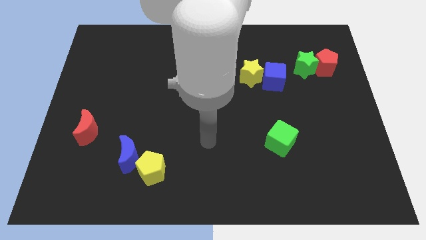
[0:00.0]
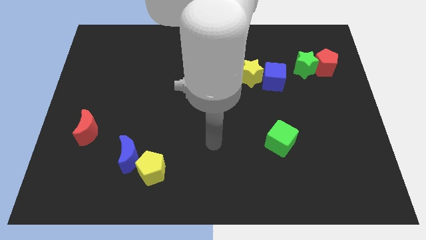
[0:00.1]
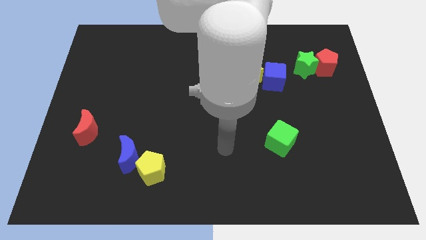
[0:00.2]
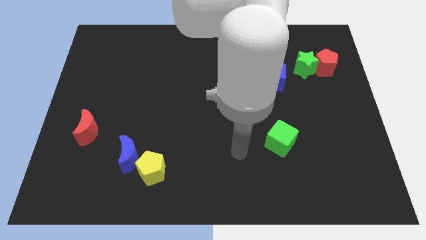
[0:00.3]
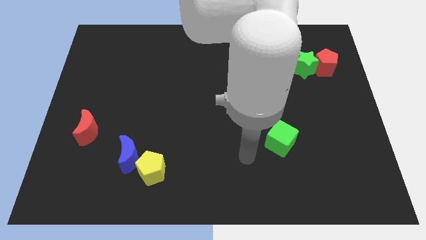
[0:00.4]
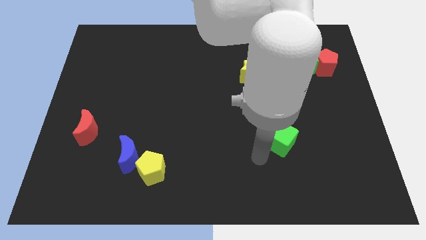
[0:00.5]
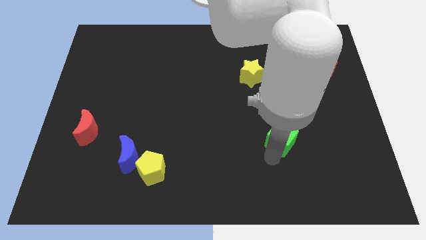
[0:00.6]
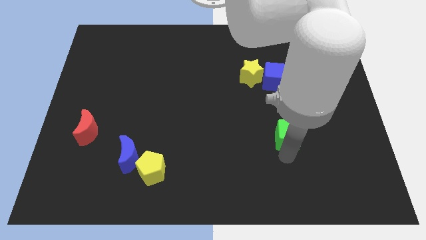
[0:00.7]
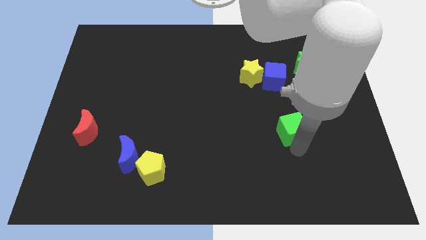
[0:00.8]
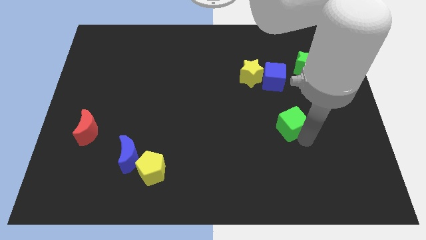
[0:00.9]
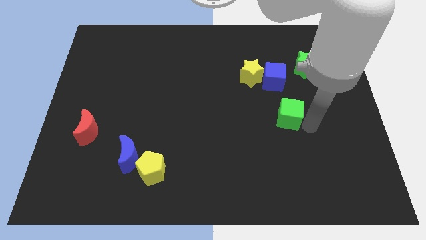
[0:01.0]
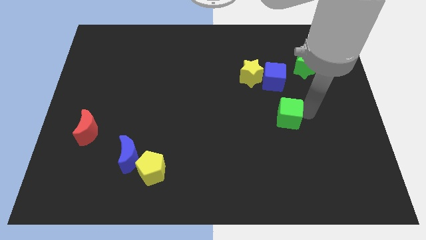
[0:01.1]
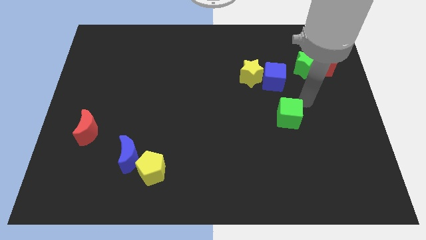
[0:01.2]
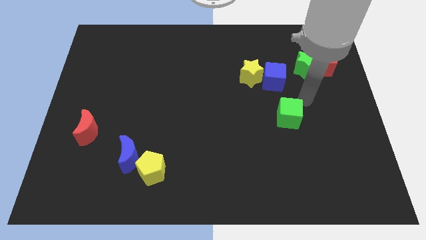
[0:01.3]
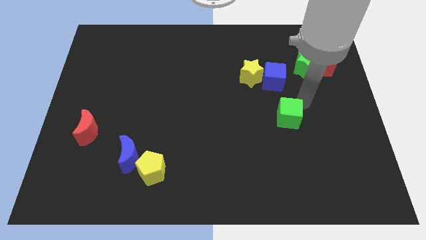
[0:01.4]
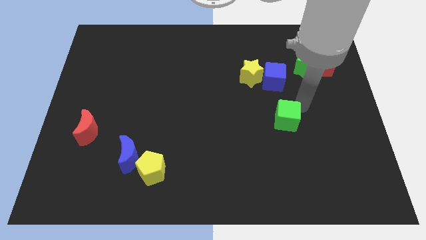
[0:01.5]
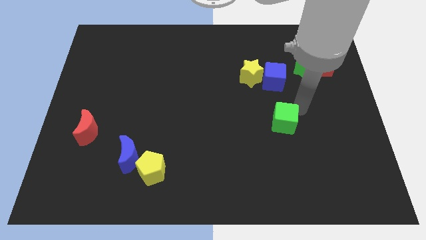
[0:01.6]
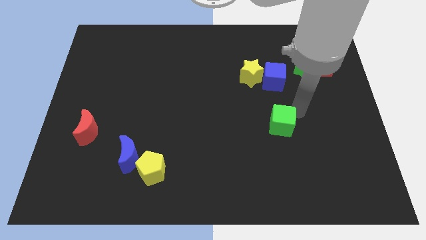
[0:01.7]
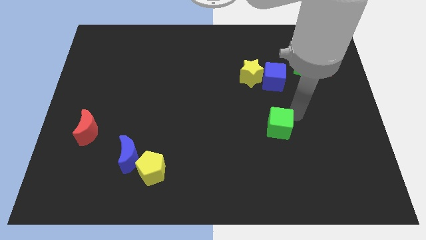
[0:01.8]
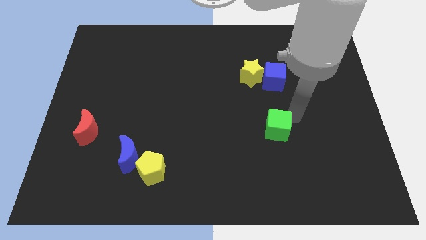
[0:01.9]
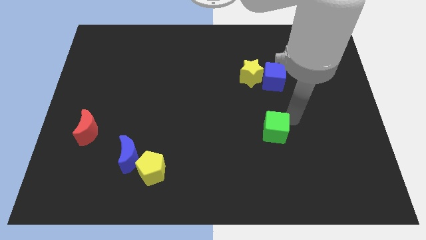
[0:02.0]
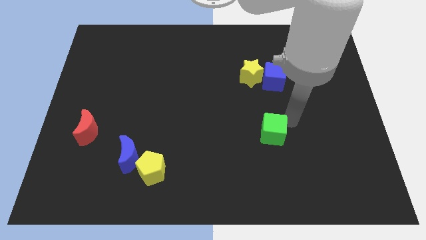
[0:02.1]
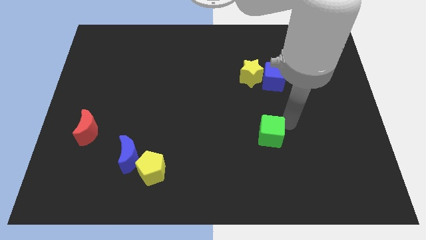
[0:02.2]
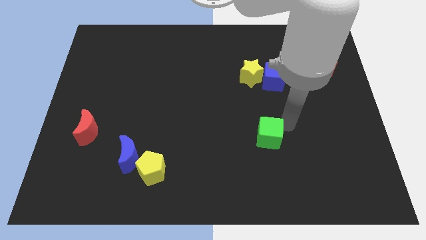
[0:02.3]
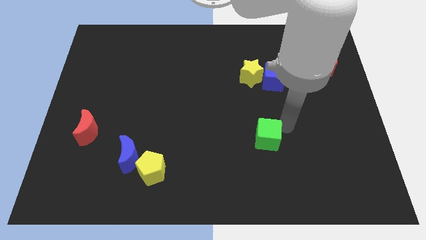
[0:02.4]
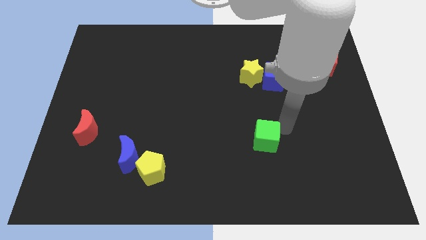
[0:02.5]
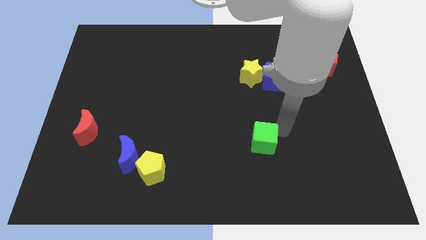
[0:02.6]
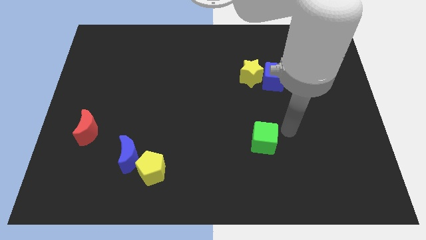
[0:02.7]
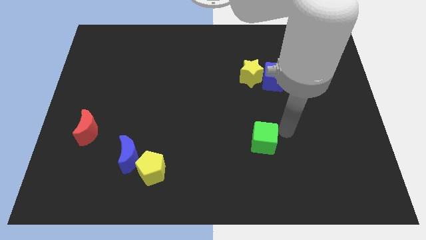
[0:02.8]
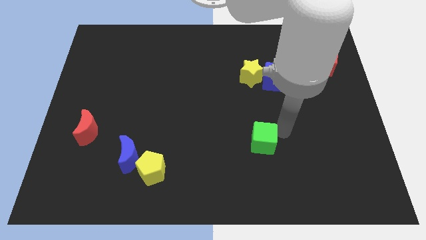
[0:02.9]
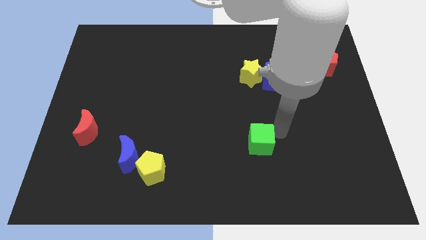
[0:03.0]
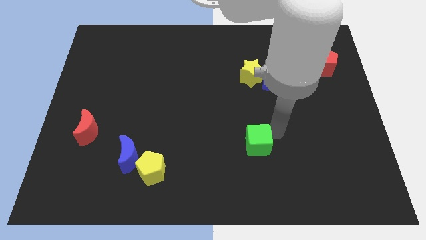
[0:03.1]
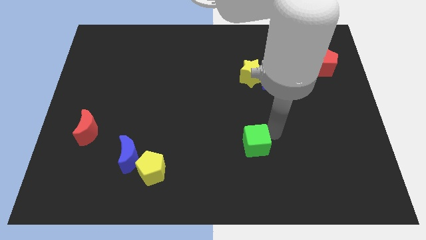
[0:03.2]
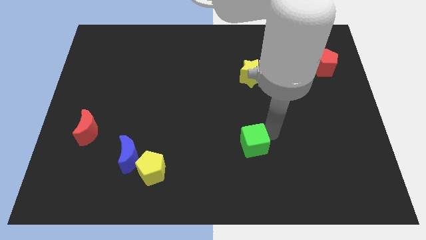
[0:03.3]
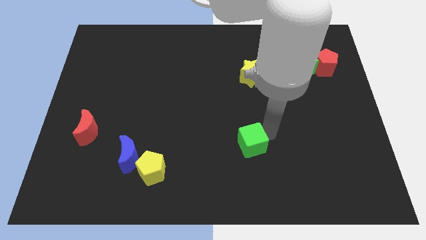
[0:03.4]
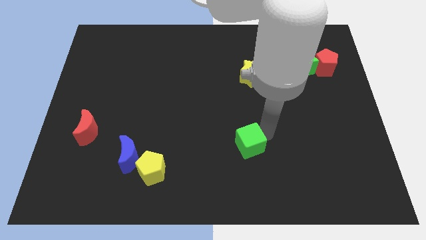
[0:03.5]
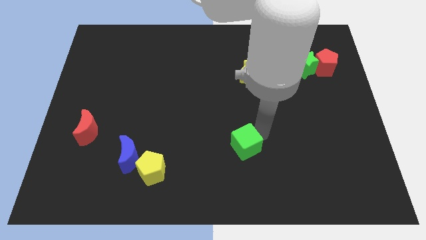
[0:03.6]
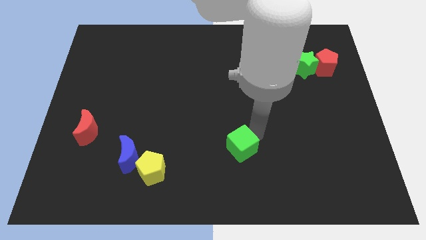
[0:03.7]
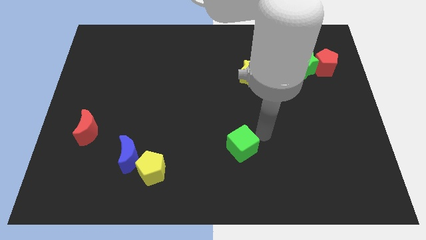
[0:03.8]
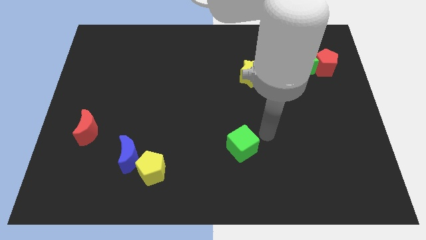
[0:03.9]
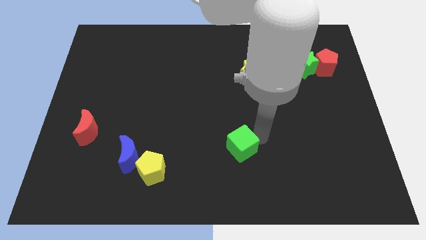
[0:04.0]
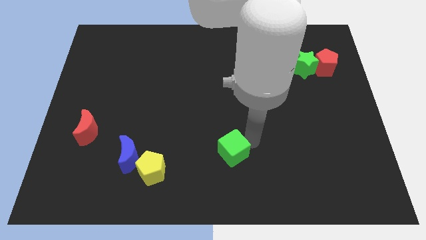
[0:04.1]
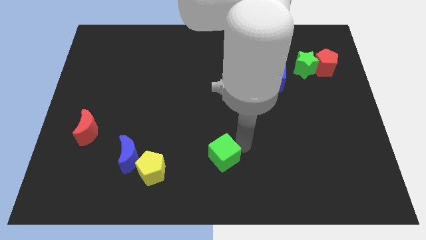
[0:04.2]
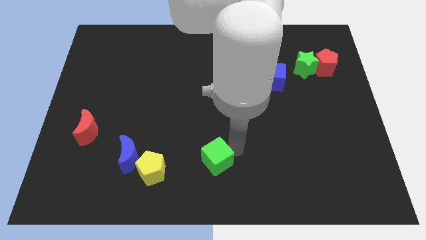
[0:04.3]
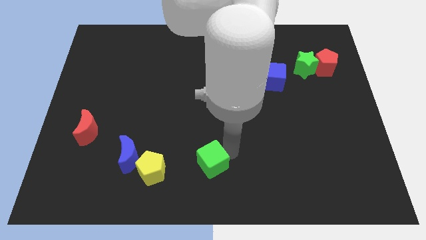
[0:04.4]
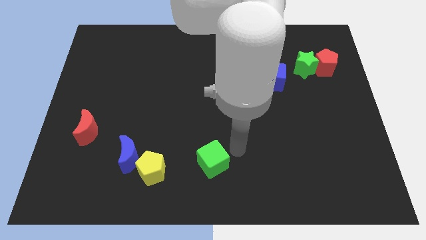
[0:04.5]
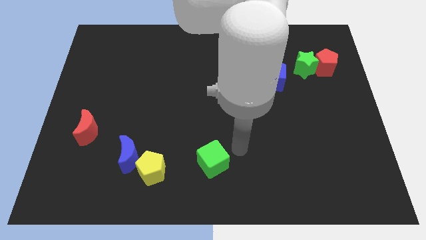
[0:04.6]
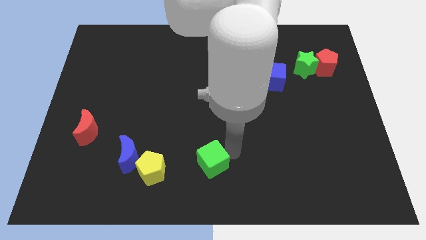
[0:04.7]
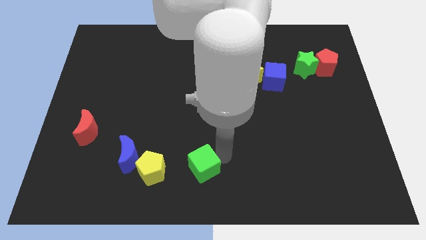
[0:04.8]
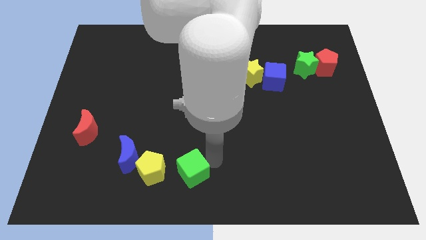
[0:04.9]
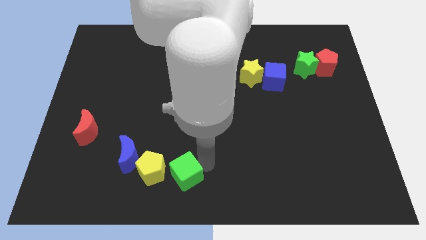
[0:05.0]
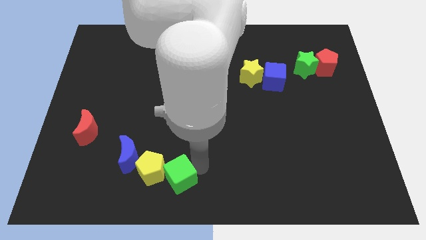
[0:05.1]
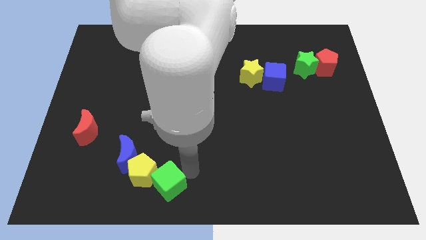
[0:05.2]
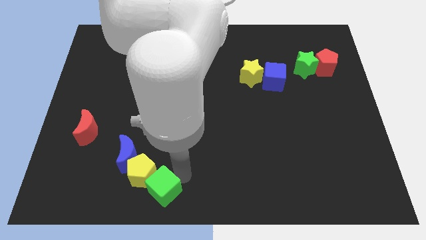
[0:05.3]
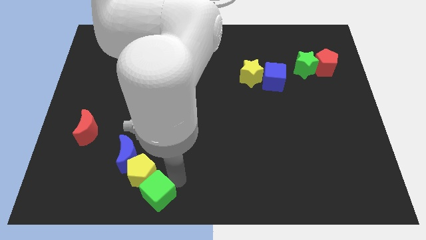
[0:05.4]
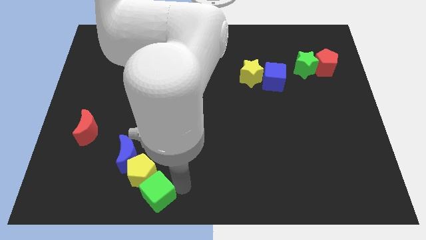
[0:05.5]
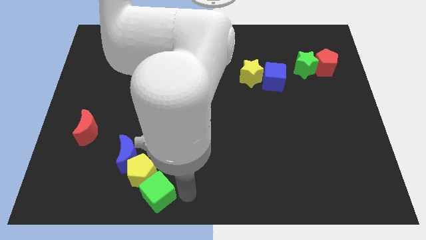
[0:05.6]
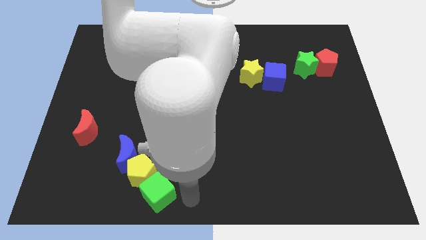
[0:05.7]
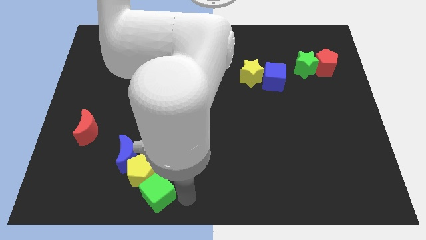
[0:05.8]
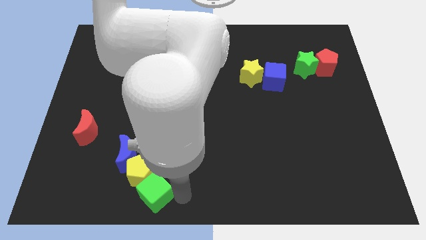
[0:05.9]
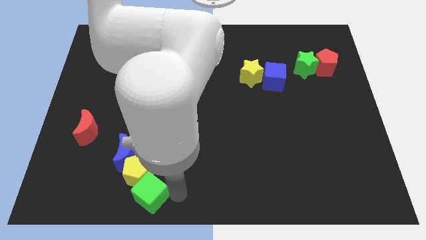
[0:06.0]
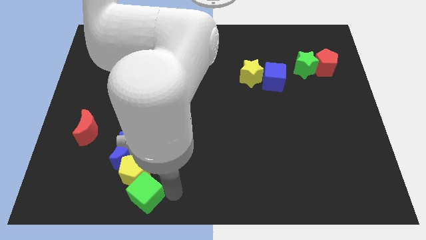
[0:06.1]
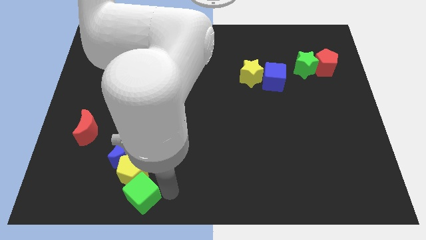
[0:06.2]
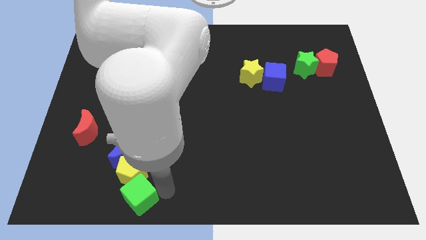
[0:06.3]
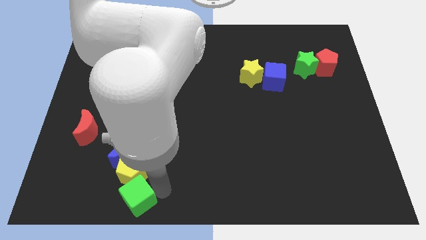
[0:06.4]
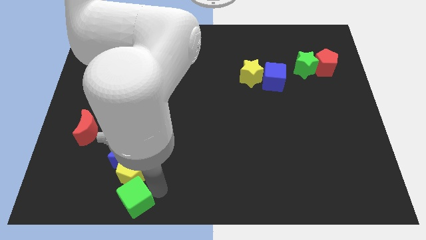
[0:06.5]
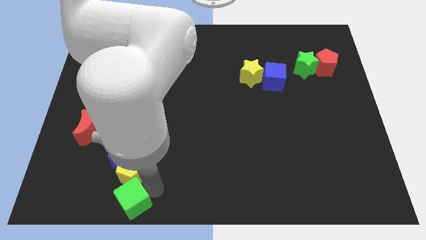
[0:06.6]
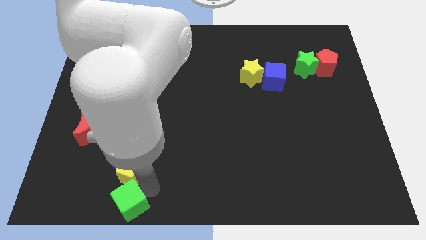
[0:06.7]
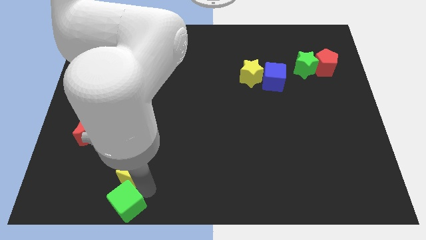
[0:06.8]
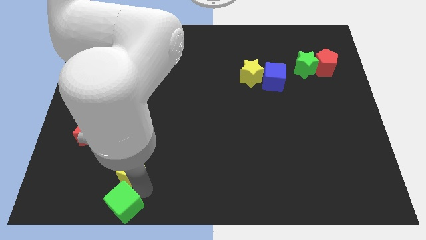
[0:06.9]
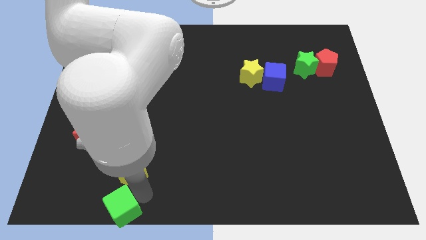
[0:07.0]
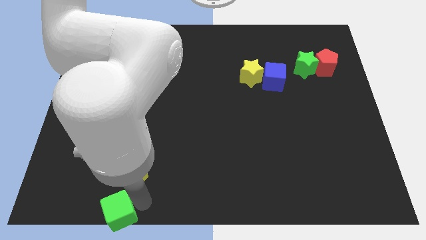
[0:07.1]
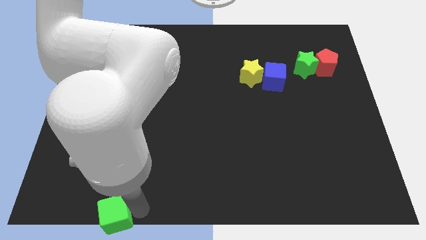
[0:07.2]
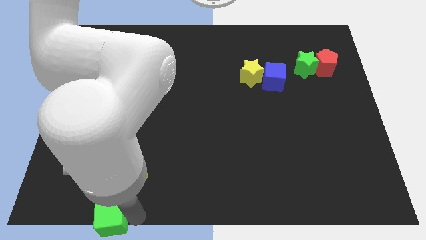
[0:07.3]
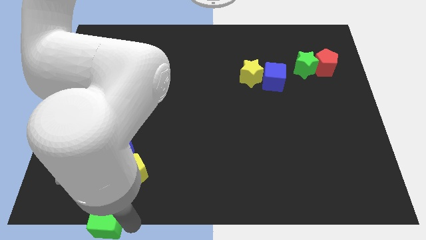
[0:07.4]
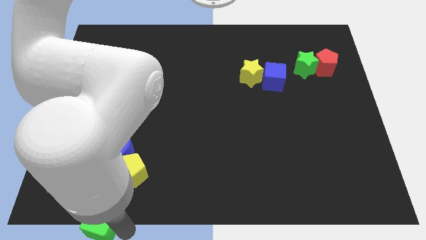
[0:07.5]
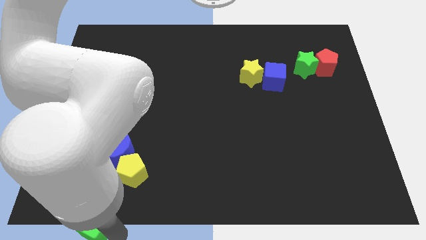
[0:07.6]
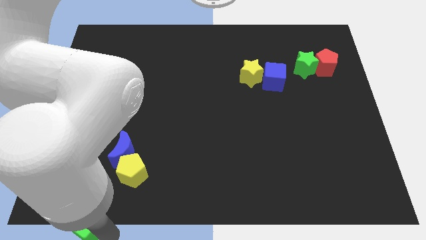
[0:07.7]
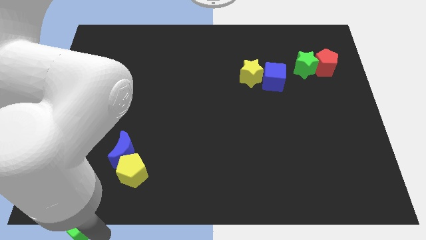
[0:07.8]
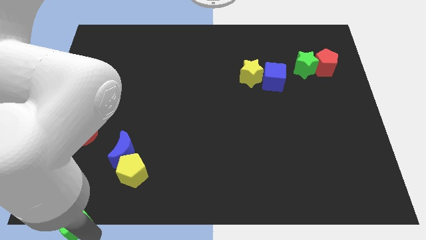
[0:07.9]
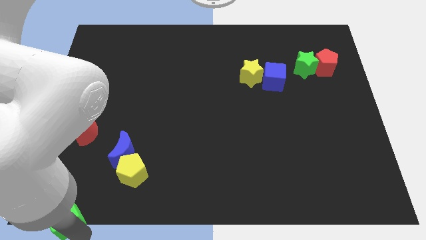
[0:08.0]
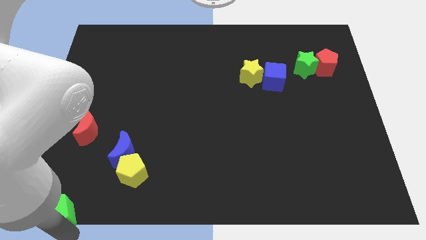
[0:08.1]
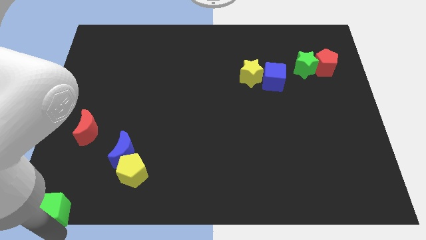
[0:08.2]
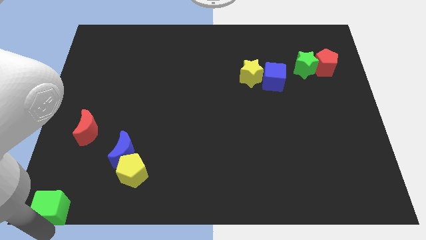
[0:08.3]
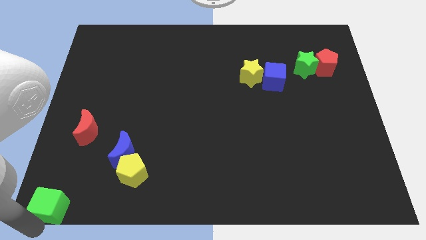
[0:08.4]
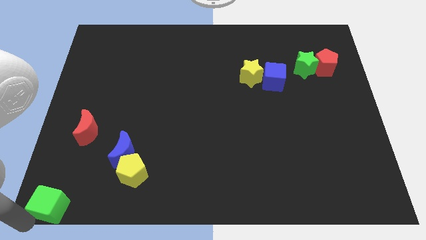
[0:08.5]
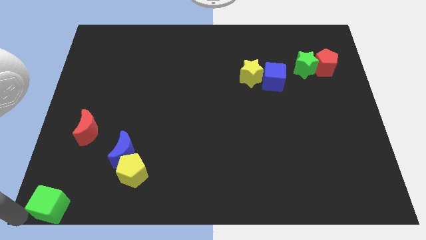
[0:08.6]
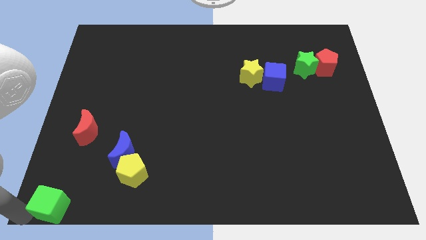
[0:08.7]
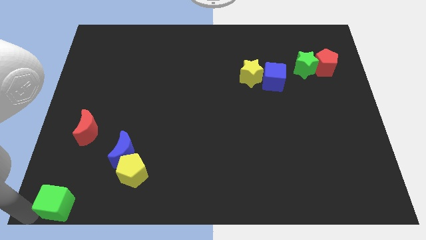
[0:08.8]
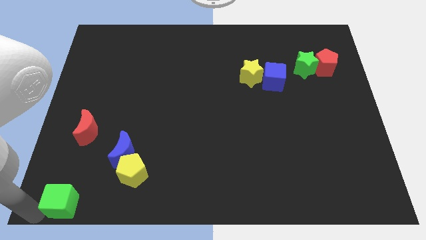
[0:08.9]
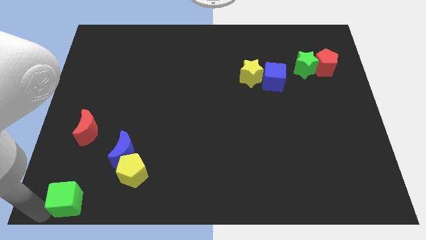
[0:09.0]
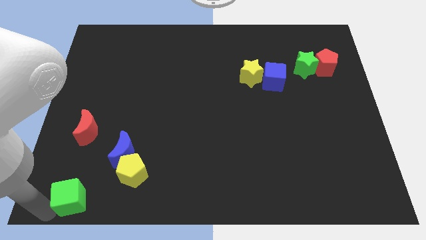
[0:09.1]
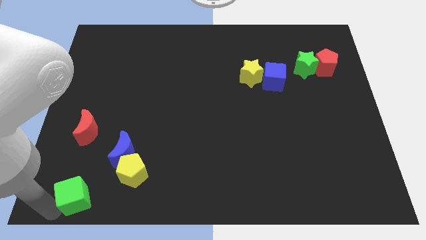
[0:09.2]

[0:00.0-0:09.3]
put the green cube to the bottom left side of the blue moon
